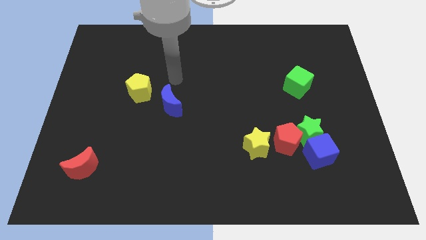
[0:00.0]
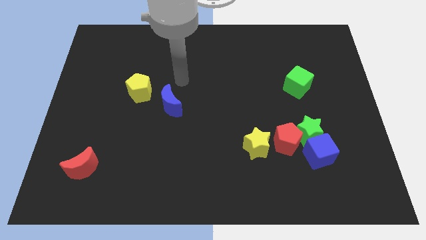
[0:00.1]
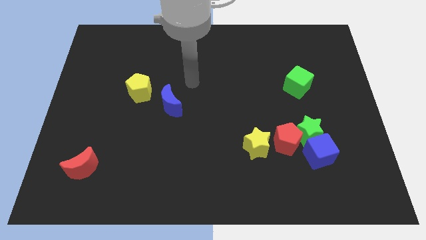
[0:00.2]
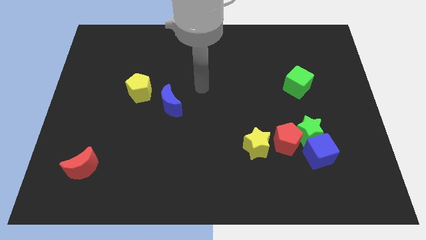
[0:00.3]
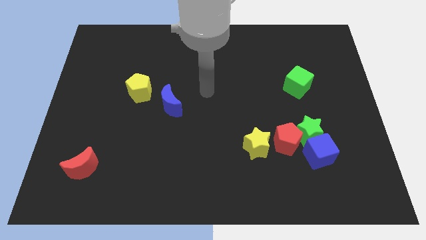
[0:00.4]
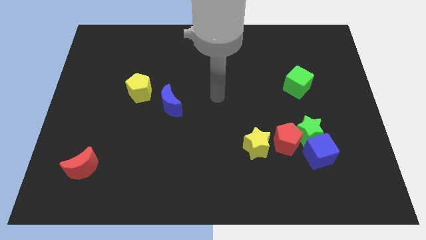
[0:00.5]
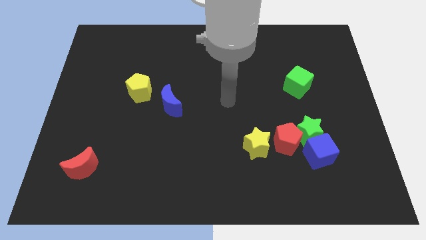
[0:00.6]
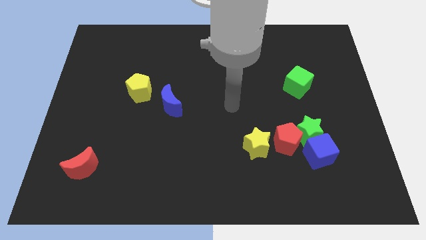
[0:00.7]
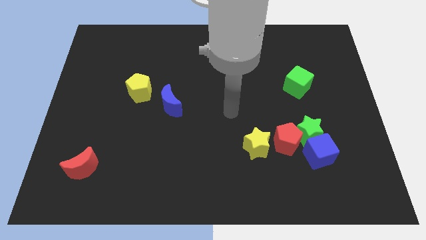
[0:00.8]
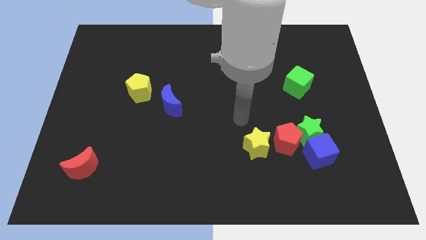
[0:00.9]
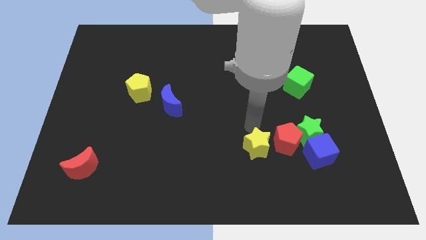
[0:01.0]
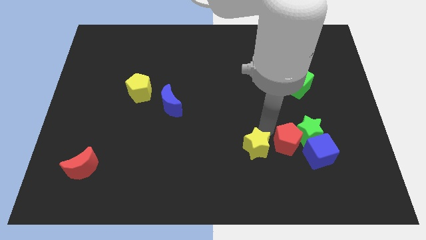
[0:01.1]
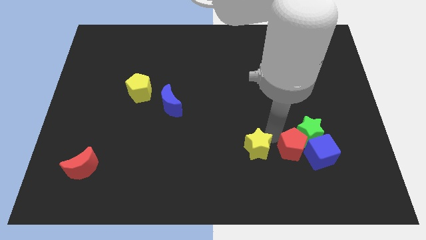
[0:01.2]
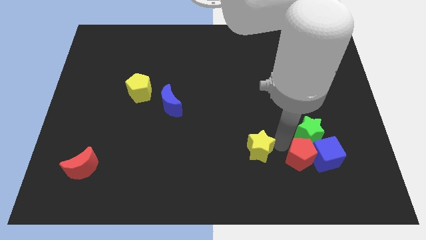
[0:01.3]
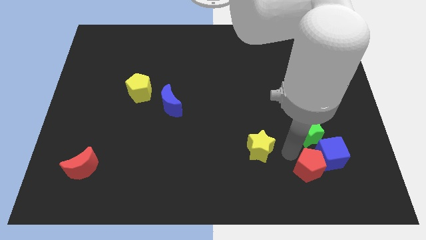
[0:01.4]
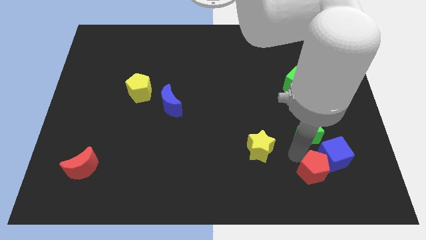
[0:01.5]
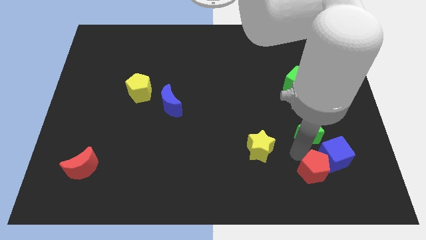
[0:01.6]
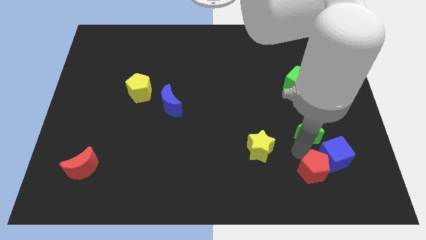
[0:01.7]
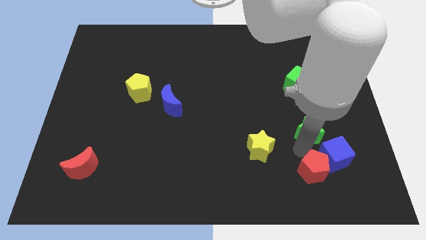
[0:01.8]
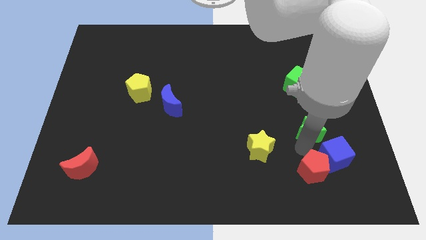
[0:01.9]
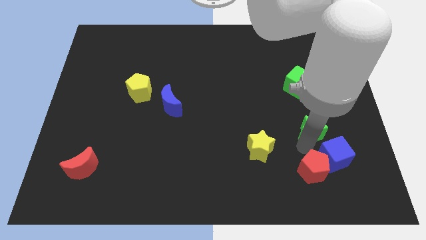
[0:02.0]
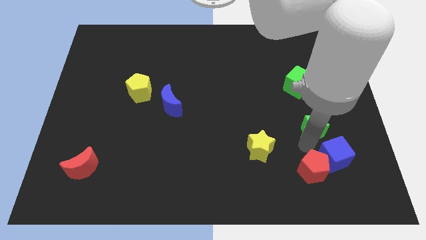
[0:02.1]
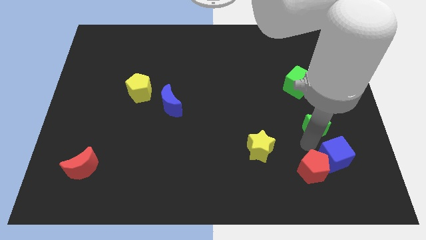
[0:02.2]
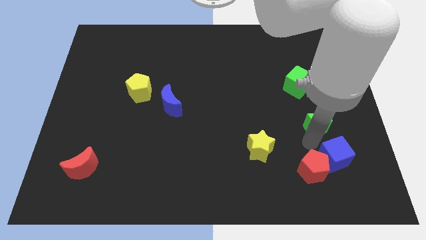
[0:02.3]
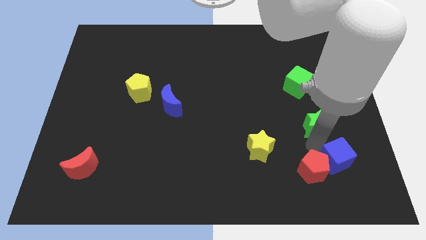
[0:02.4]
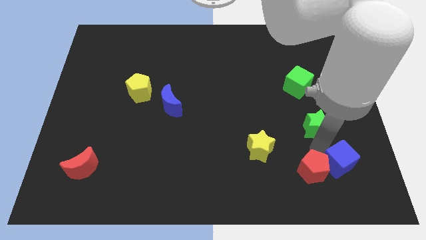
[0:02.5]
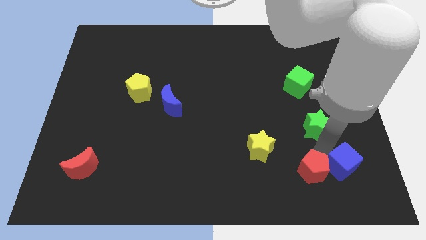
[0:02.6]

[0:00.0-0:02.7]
move the green star away from the red pentagon and blue cube

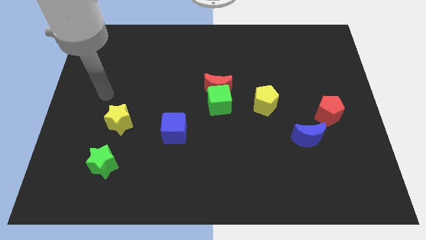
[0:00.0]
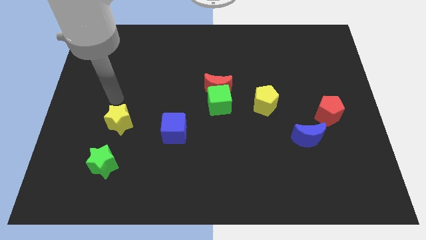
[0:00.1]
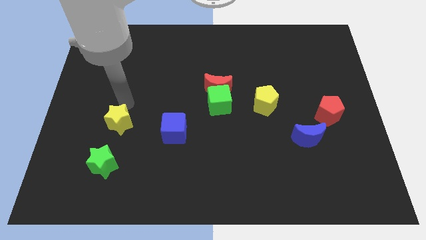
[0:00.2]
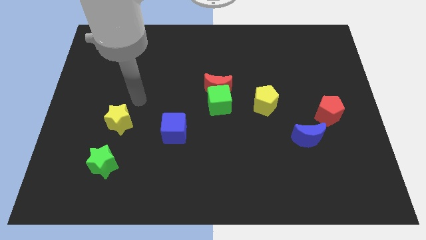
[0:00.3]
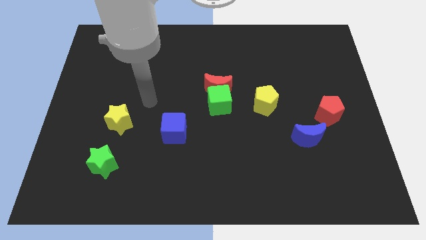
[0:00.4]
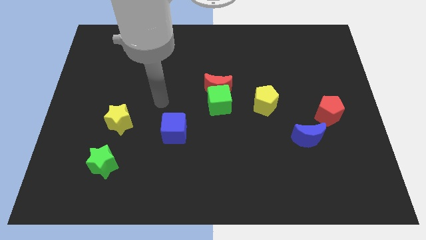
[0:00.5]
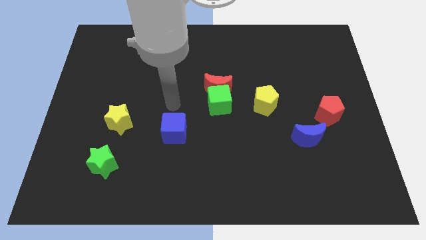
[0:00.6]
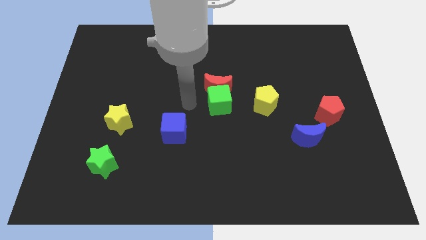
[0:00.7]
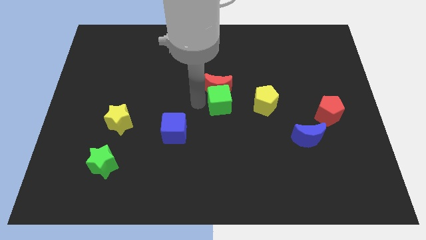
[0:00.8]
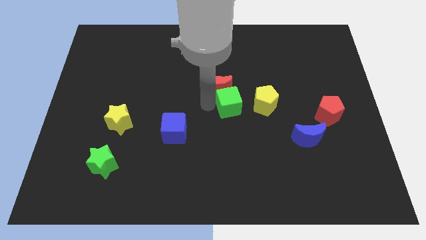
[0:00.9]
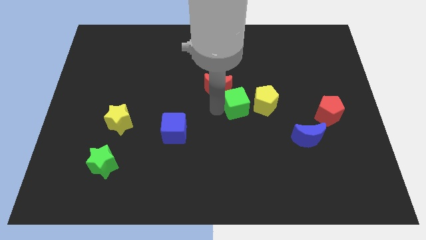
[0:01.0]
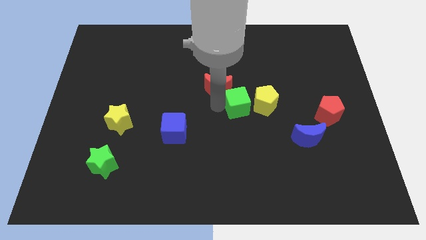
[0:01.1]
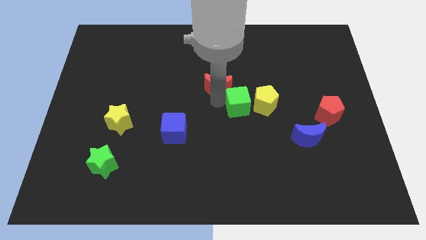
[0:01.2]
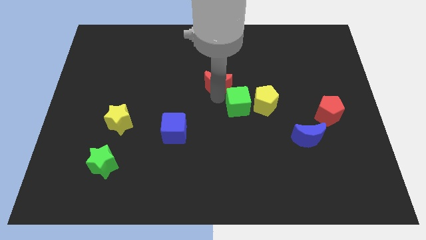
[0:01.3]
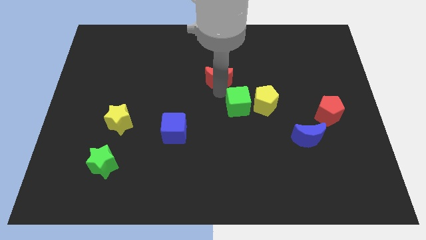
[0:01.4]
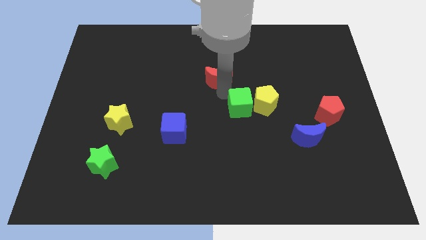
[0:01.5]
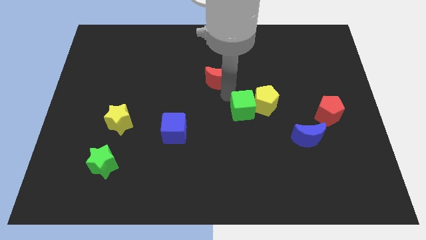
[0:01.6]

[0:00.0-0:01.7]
pull the red moon apart from the green cube

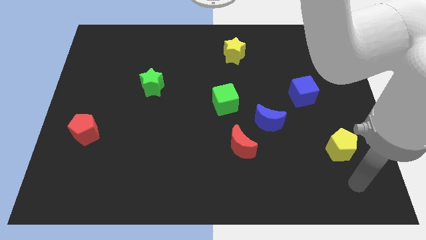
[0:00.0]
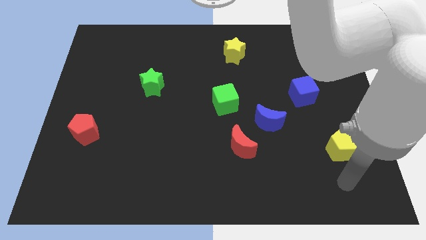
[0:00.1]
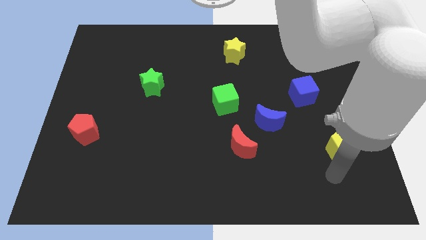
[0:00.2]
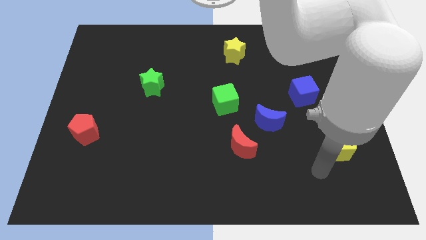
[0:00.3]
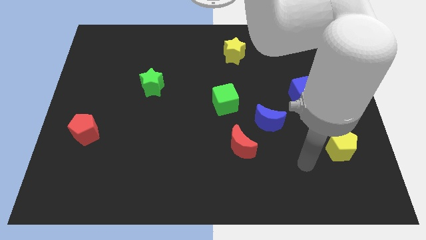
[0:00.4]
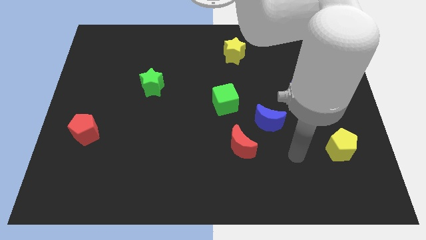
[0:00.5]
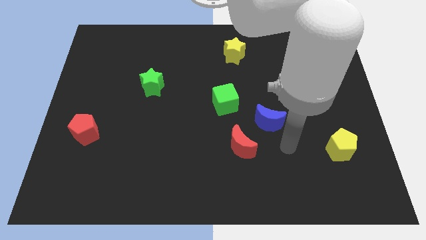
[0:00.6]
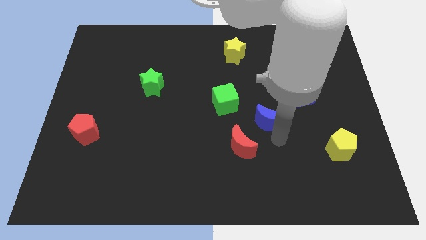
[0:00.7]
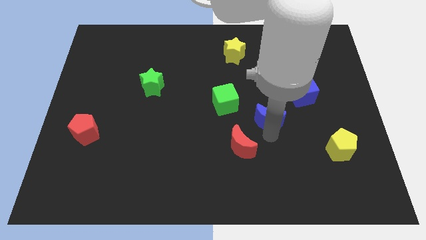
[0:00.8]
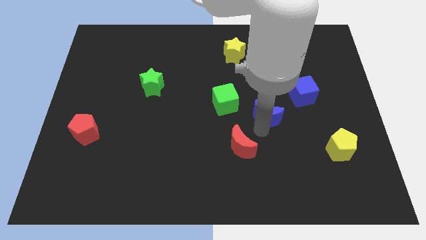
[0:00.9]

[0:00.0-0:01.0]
move the red moon away from the blue moon

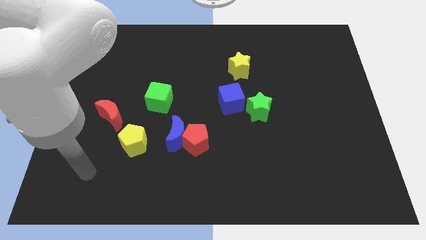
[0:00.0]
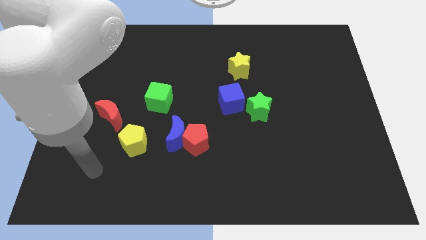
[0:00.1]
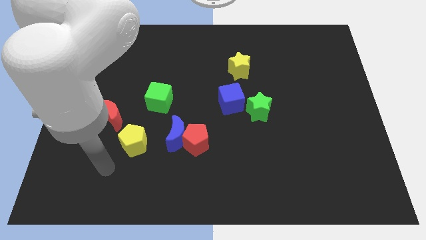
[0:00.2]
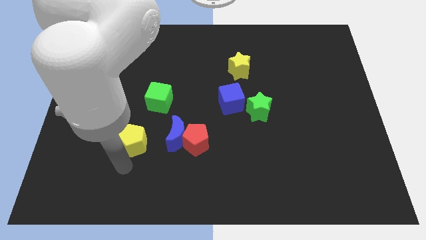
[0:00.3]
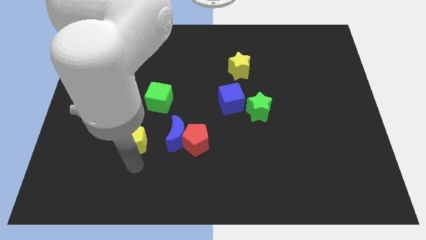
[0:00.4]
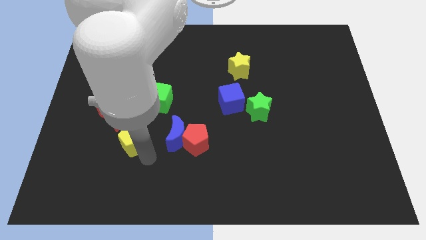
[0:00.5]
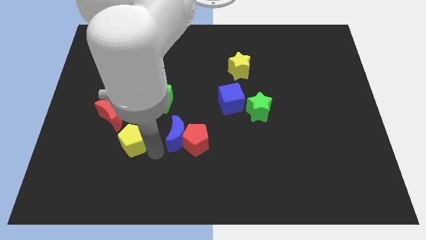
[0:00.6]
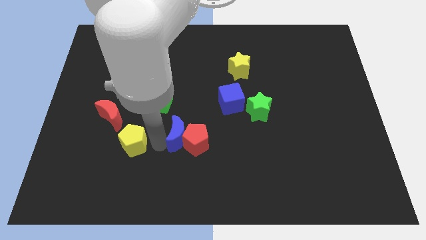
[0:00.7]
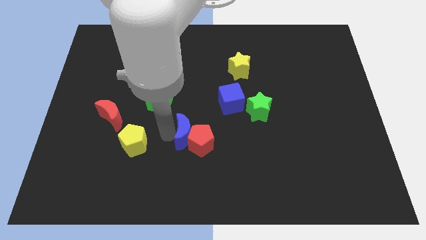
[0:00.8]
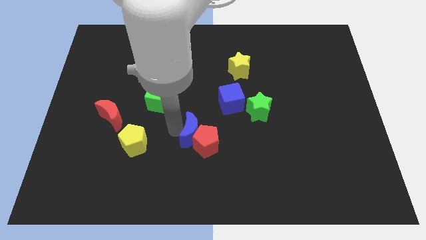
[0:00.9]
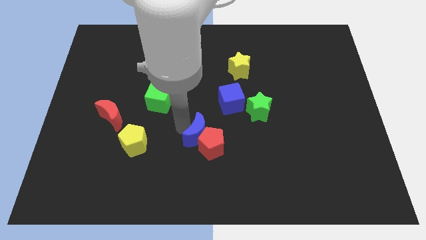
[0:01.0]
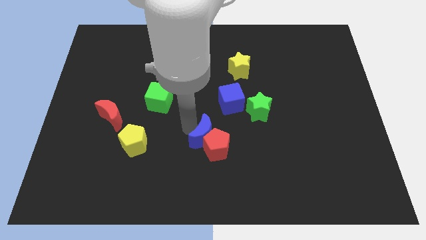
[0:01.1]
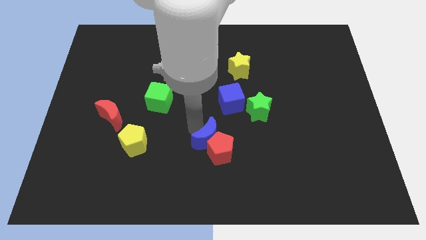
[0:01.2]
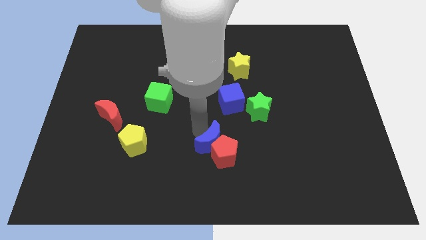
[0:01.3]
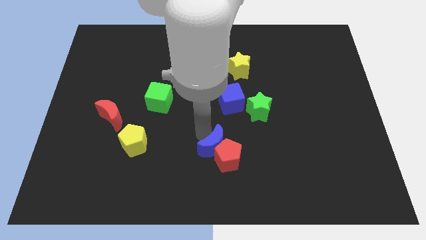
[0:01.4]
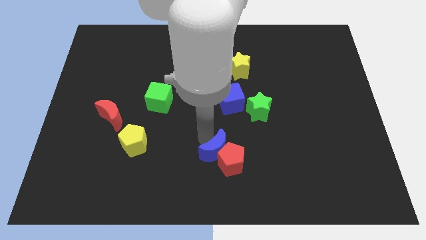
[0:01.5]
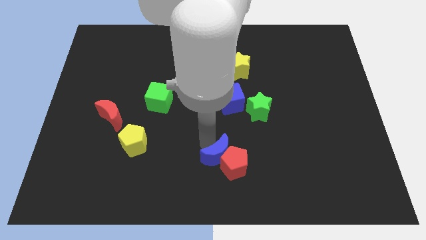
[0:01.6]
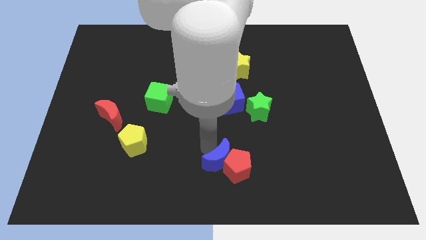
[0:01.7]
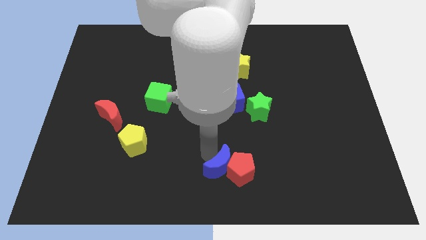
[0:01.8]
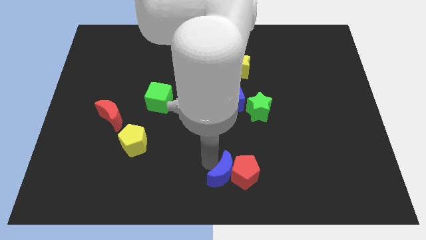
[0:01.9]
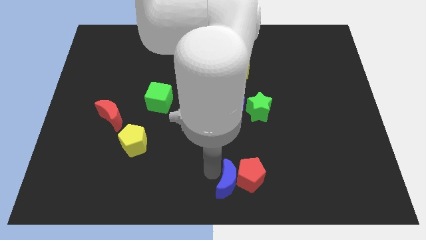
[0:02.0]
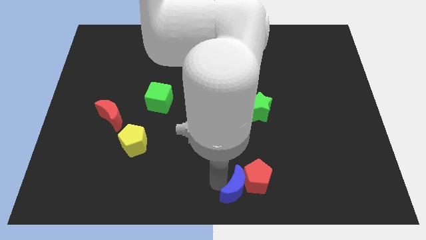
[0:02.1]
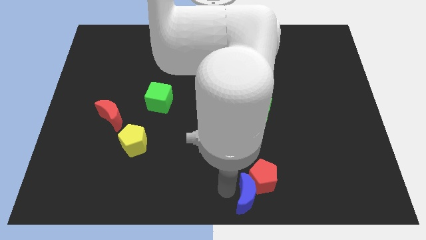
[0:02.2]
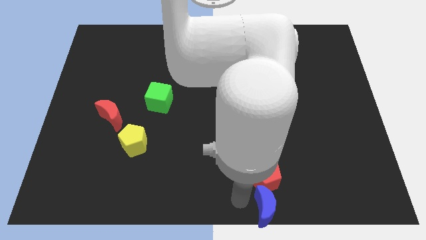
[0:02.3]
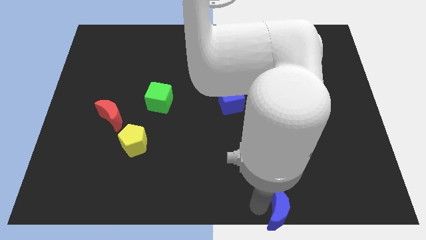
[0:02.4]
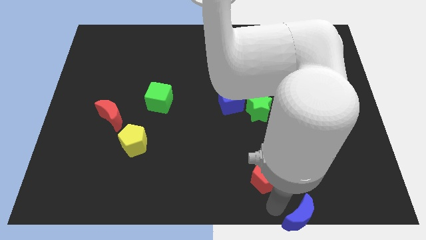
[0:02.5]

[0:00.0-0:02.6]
pull the red pentagon apart from the blue moon

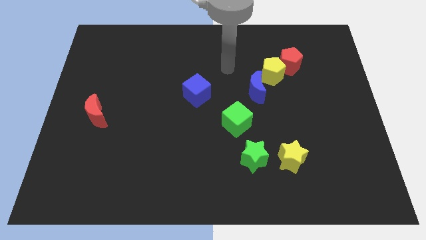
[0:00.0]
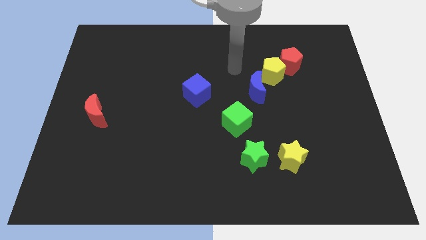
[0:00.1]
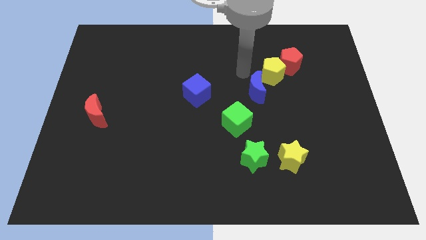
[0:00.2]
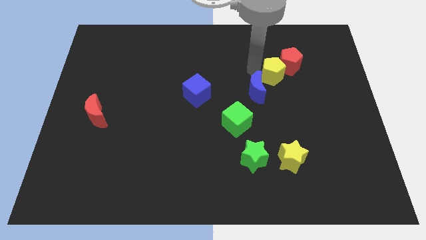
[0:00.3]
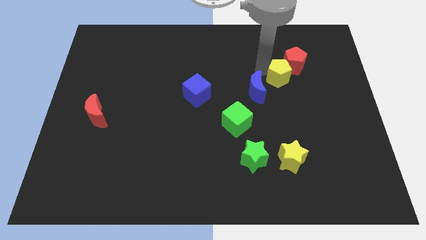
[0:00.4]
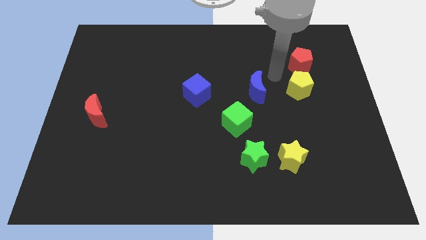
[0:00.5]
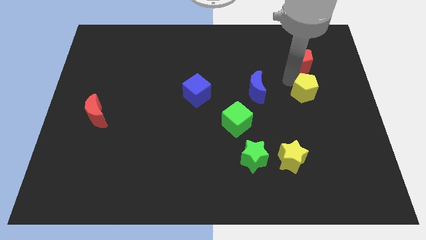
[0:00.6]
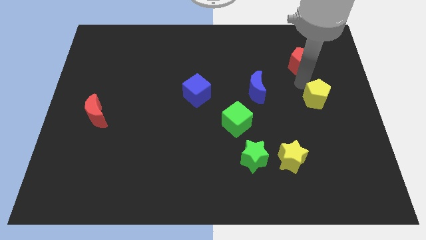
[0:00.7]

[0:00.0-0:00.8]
move the red pentagon away from the yellow pentagon

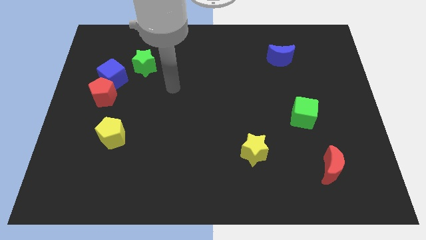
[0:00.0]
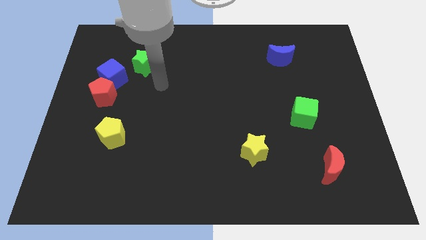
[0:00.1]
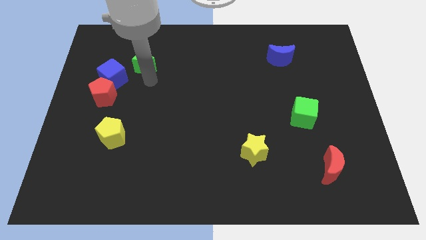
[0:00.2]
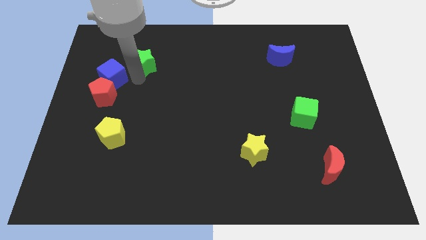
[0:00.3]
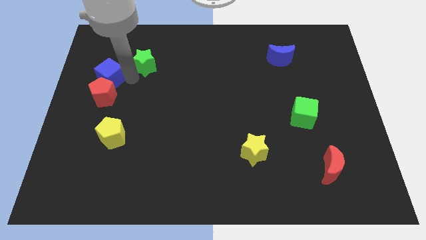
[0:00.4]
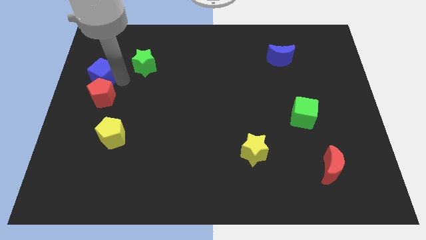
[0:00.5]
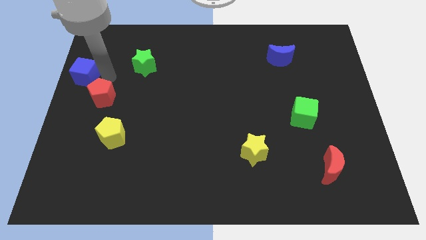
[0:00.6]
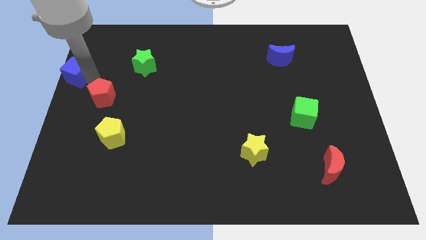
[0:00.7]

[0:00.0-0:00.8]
move the red pentagon away from the blue cube
